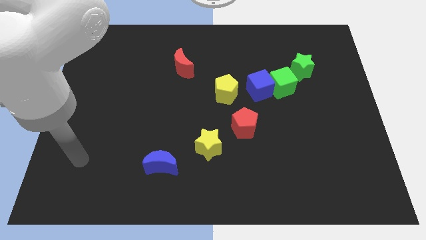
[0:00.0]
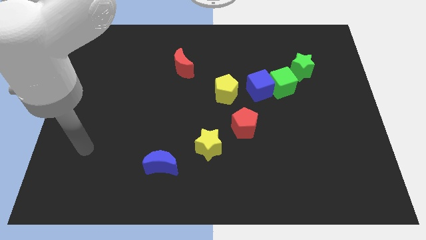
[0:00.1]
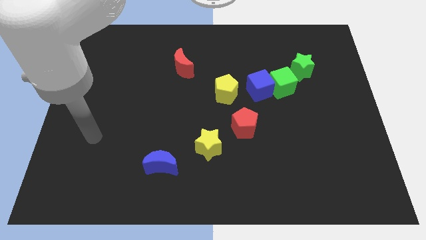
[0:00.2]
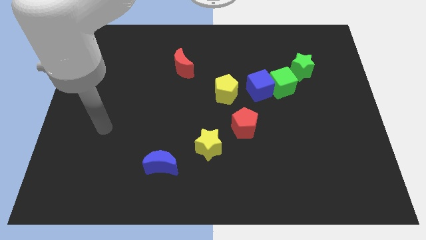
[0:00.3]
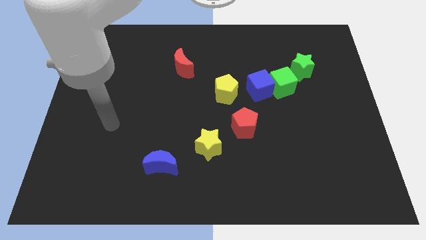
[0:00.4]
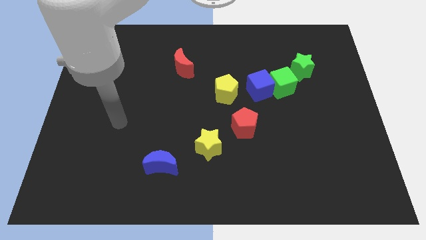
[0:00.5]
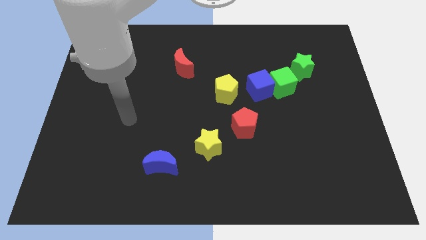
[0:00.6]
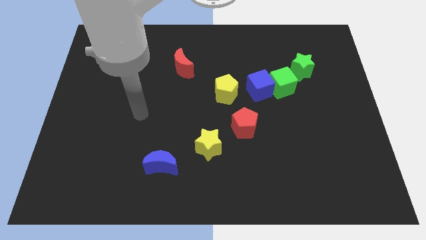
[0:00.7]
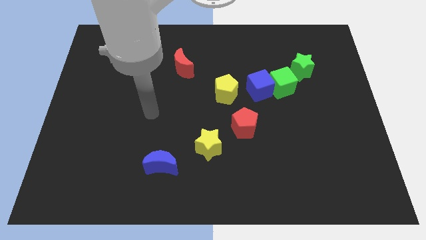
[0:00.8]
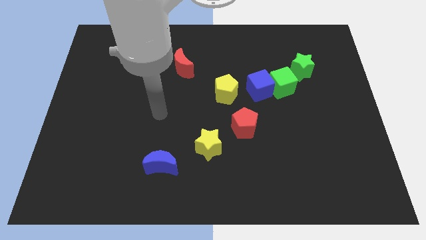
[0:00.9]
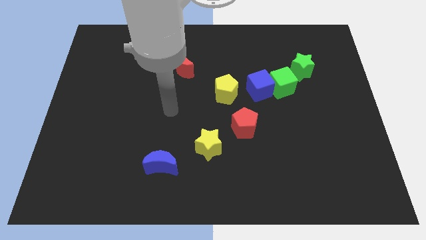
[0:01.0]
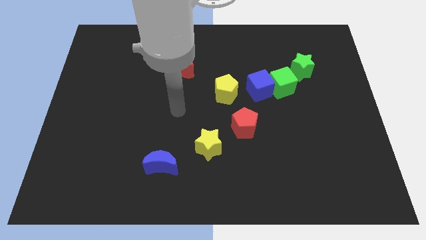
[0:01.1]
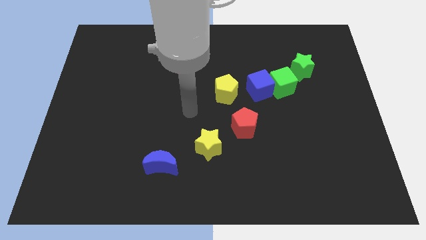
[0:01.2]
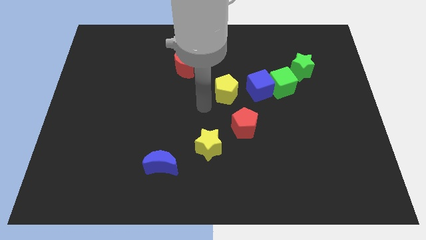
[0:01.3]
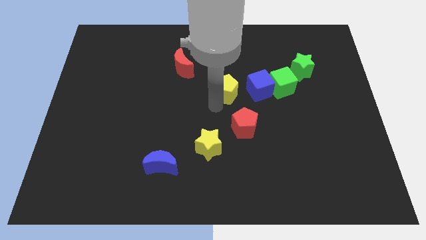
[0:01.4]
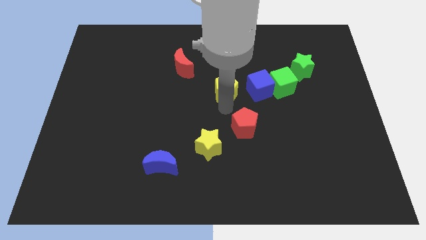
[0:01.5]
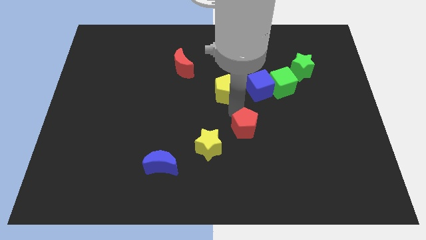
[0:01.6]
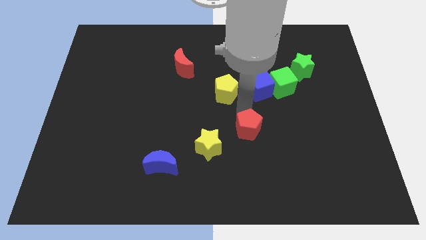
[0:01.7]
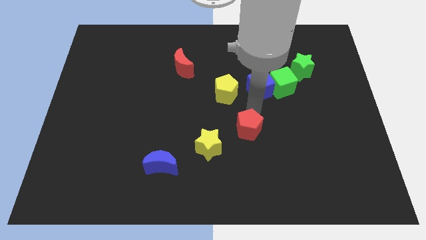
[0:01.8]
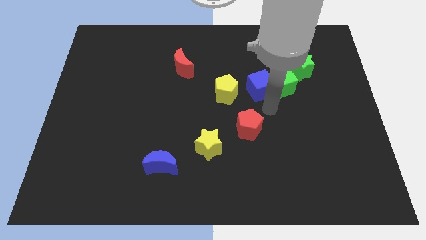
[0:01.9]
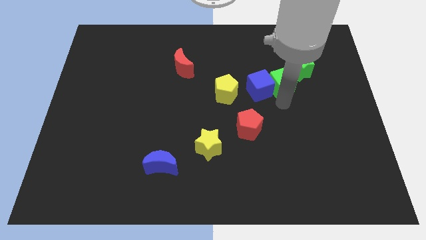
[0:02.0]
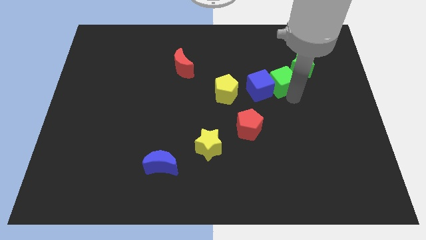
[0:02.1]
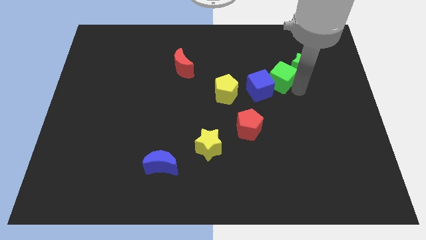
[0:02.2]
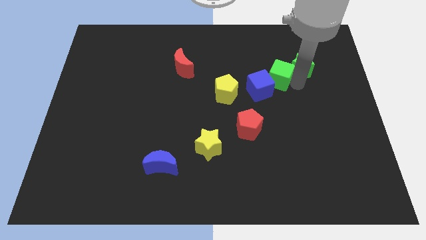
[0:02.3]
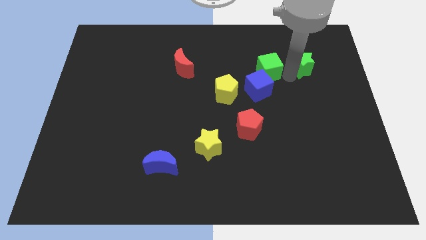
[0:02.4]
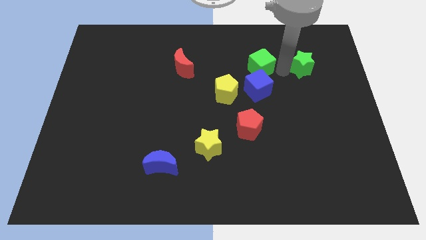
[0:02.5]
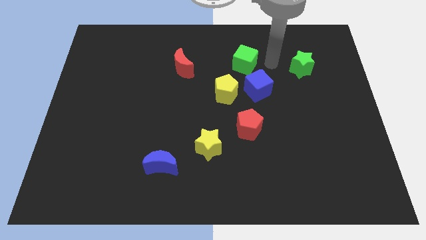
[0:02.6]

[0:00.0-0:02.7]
move the green cube away from the blue cube and green star

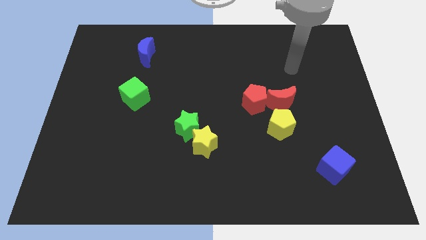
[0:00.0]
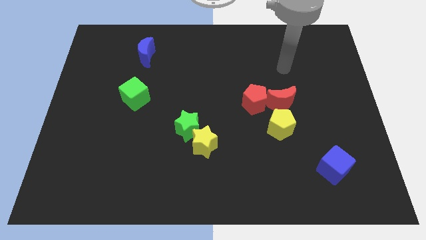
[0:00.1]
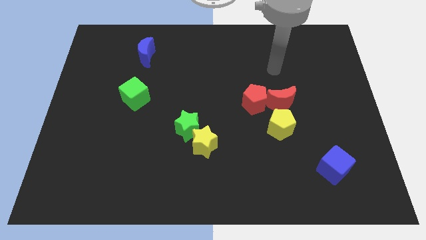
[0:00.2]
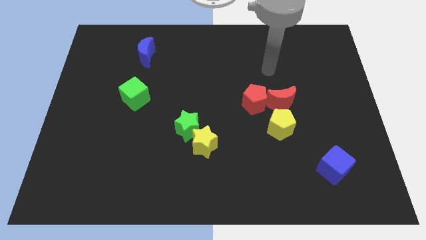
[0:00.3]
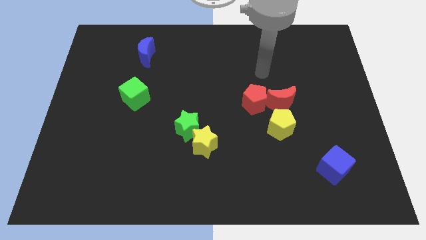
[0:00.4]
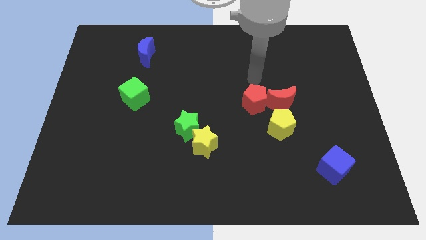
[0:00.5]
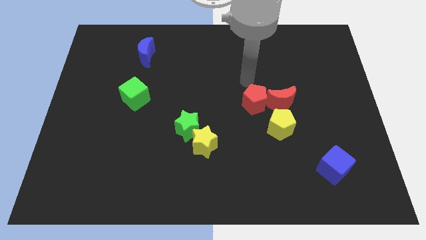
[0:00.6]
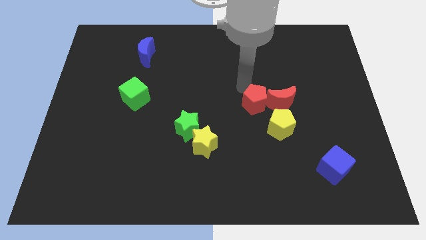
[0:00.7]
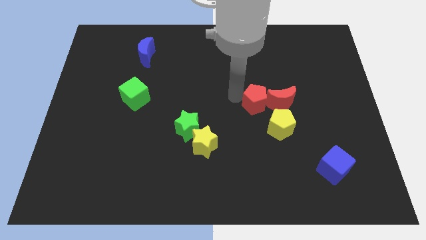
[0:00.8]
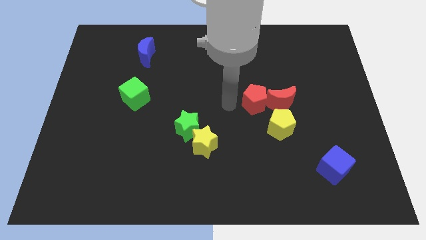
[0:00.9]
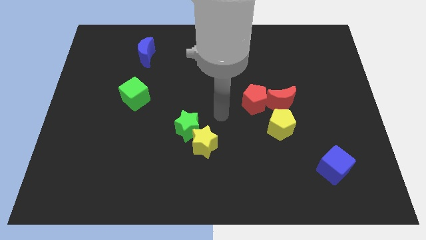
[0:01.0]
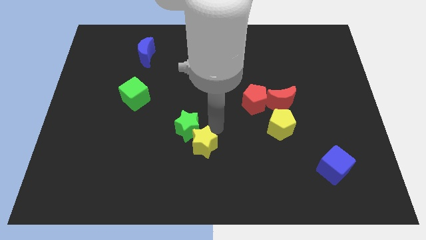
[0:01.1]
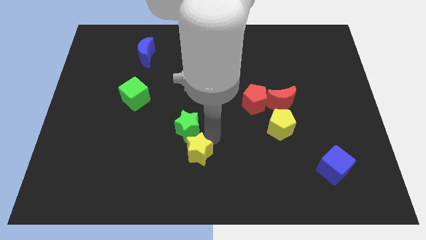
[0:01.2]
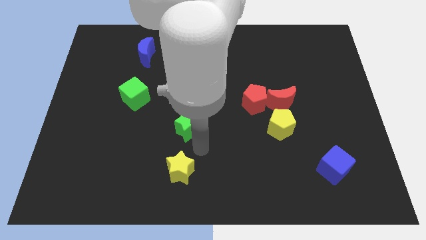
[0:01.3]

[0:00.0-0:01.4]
move the green star away from the yellow star

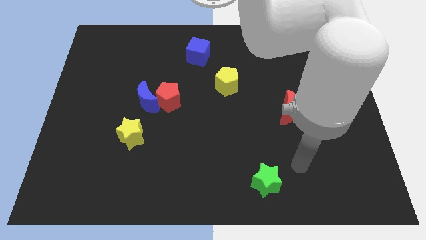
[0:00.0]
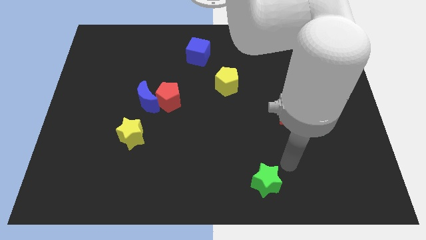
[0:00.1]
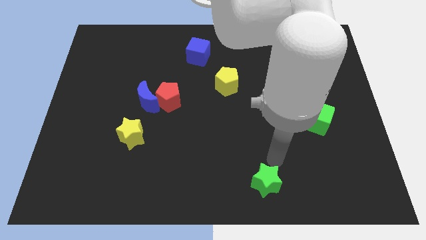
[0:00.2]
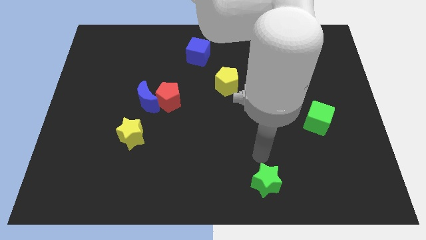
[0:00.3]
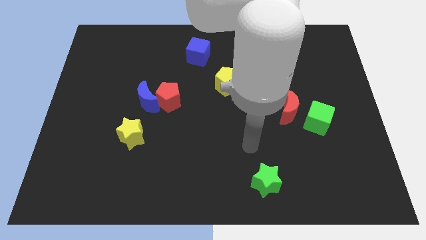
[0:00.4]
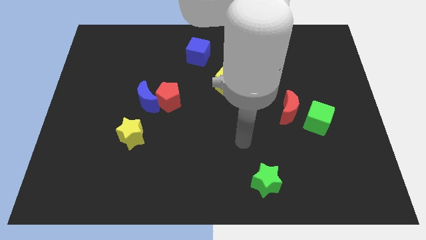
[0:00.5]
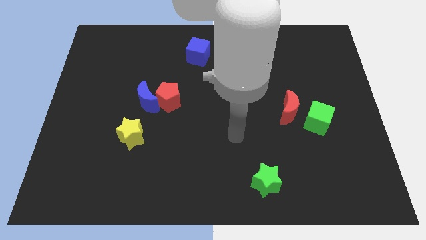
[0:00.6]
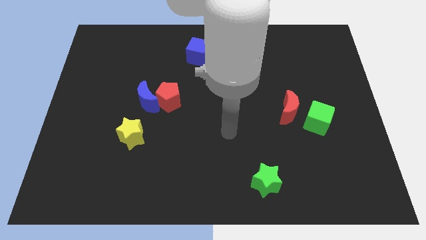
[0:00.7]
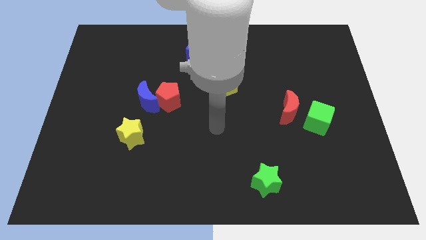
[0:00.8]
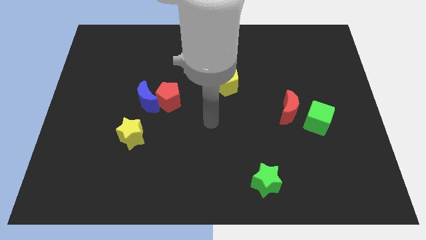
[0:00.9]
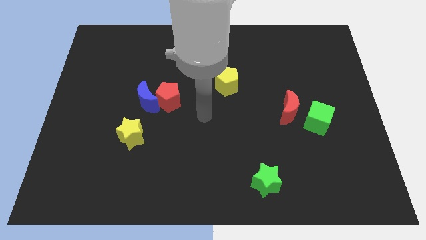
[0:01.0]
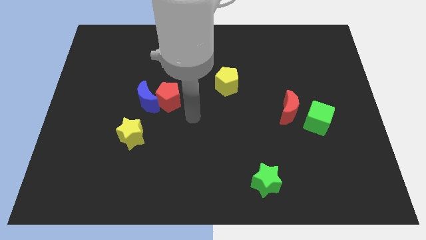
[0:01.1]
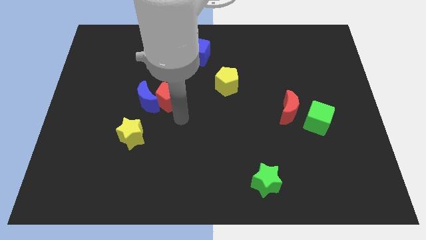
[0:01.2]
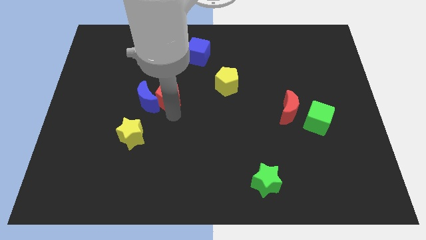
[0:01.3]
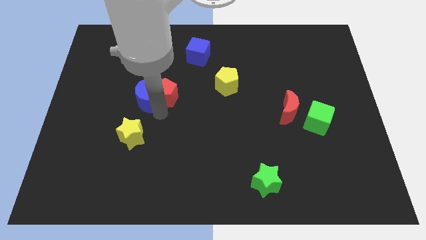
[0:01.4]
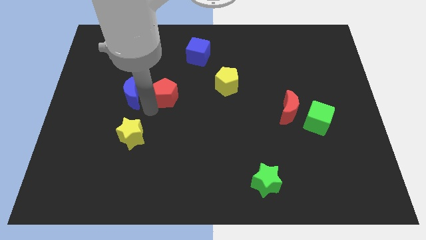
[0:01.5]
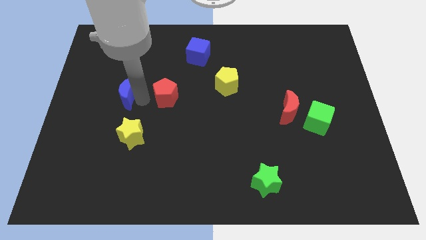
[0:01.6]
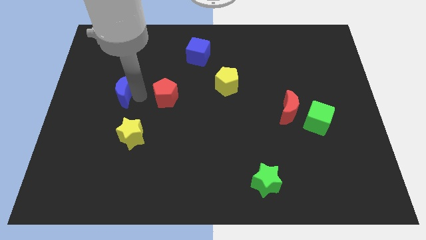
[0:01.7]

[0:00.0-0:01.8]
move the red pentagon away from the blue moon

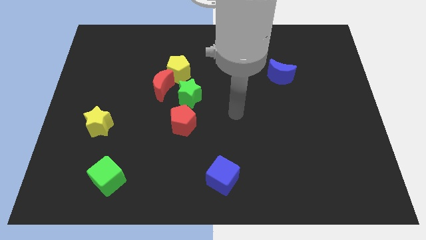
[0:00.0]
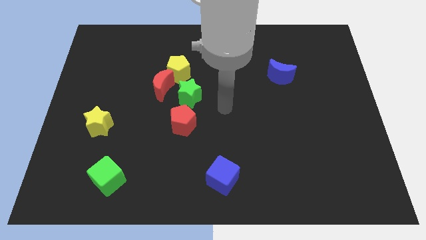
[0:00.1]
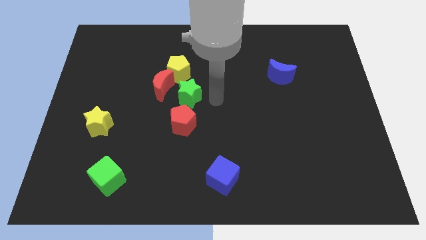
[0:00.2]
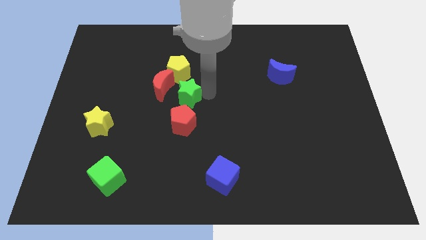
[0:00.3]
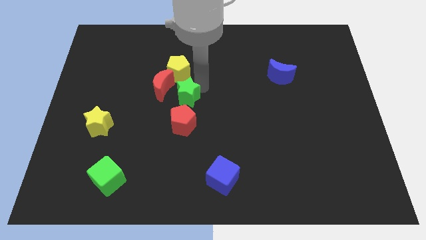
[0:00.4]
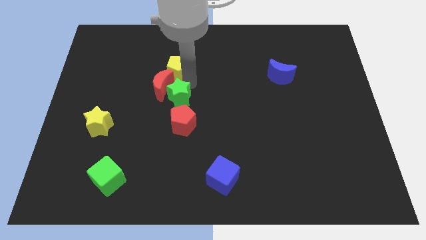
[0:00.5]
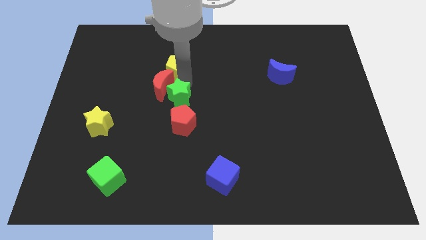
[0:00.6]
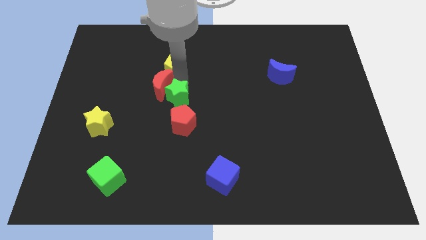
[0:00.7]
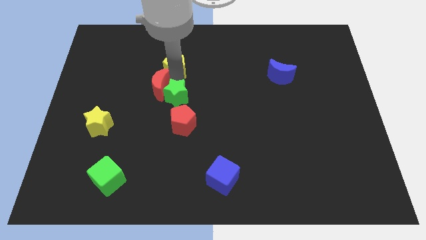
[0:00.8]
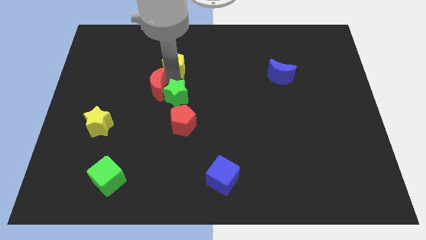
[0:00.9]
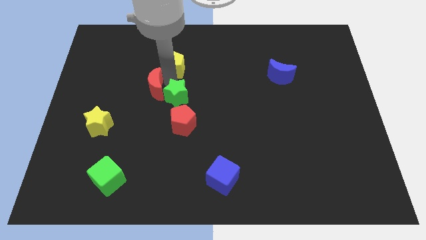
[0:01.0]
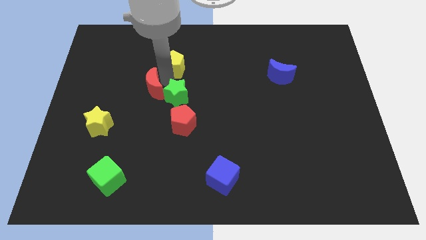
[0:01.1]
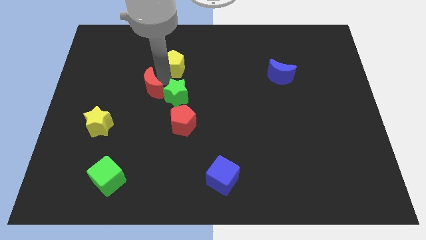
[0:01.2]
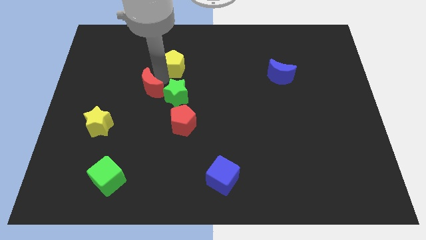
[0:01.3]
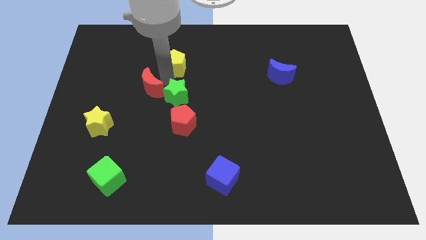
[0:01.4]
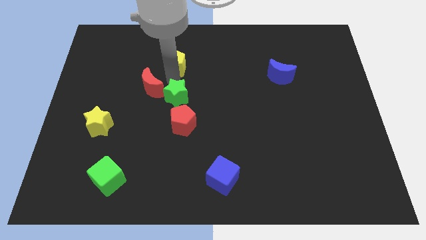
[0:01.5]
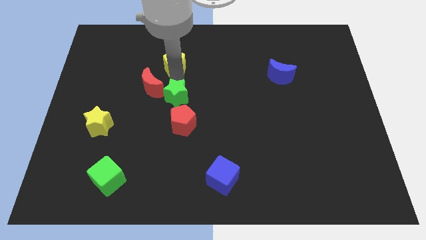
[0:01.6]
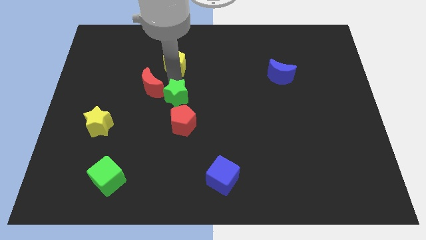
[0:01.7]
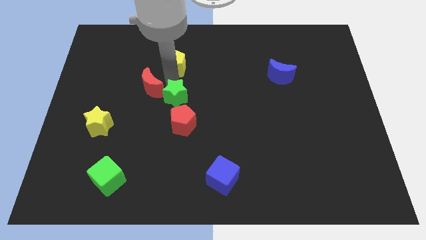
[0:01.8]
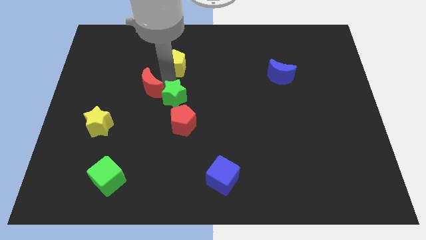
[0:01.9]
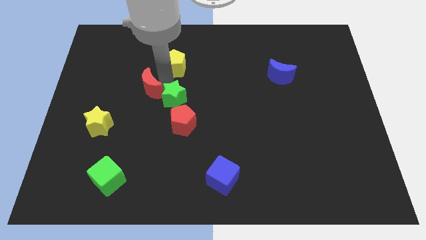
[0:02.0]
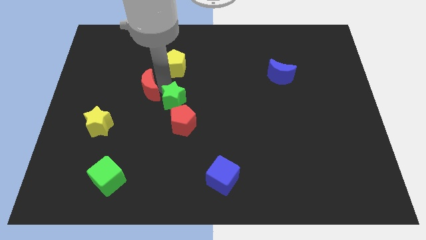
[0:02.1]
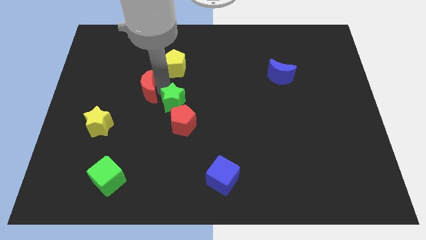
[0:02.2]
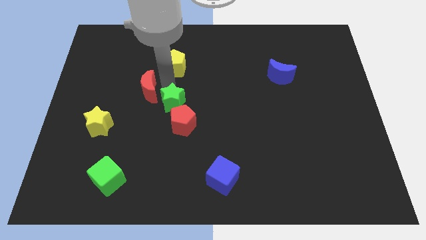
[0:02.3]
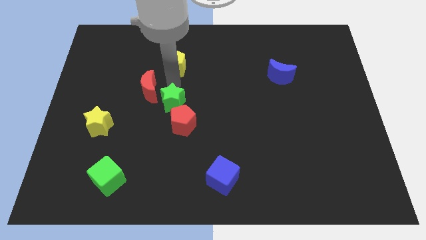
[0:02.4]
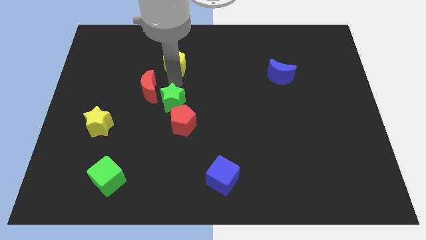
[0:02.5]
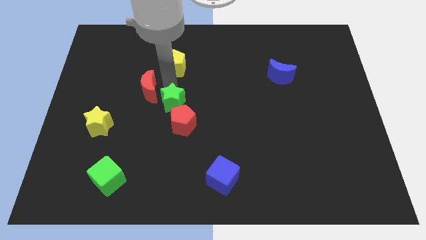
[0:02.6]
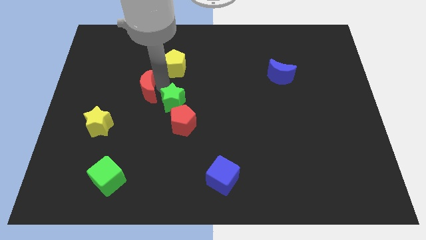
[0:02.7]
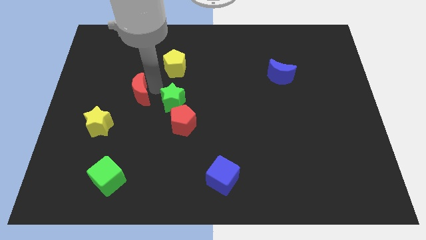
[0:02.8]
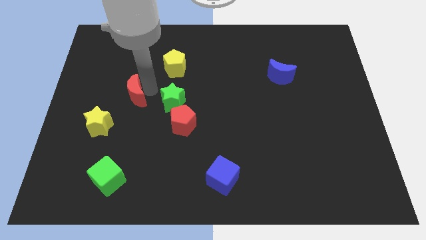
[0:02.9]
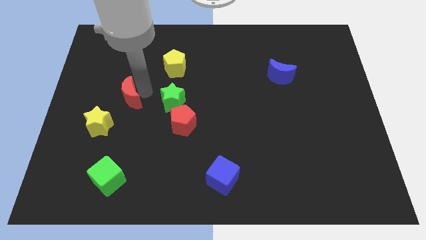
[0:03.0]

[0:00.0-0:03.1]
separate the red moon from the yellow pentagon and green star

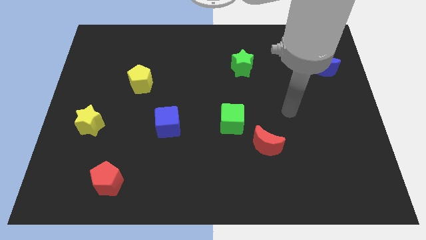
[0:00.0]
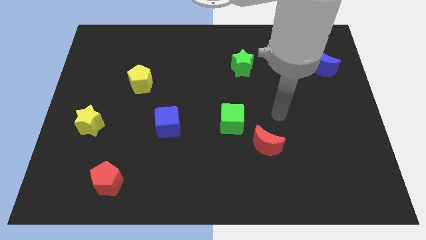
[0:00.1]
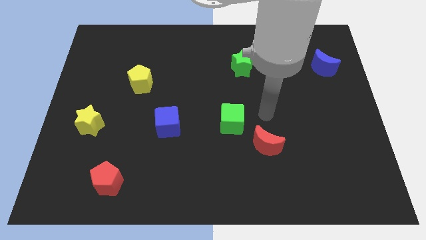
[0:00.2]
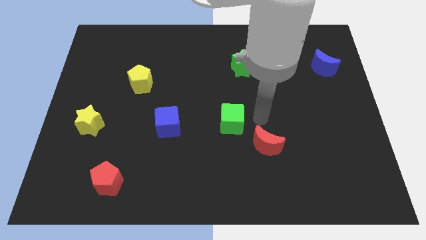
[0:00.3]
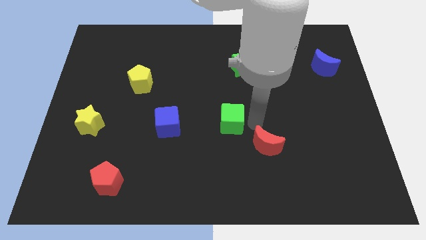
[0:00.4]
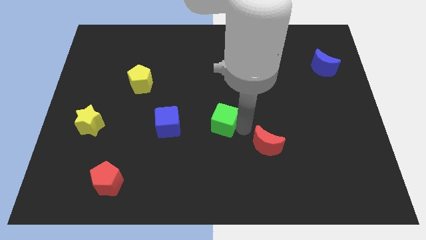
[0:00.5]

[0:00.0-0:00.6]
pull the red moon apart from the green cube
